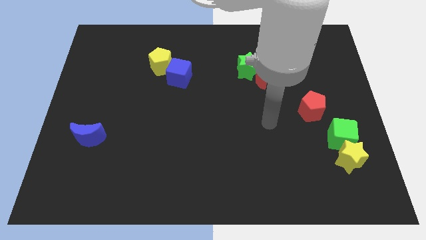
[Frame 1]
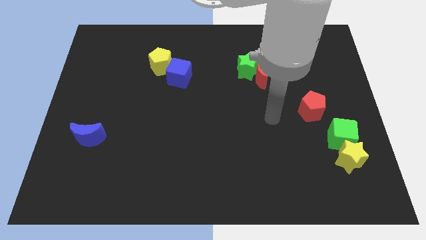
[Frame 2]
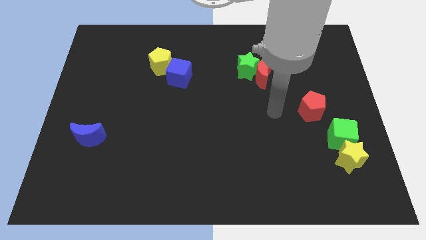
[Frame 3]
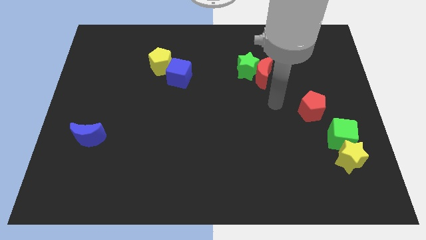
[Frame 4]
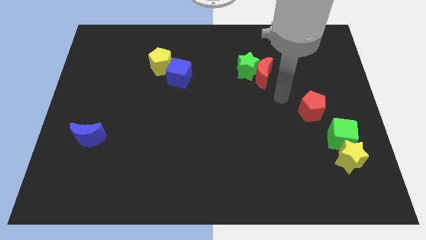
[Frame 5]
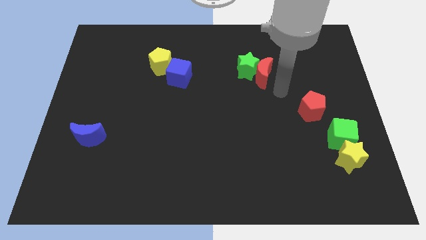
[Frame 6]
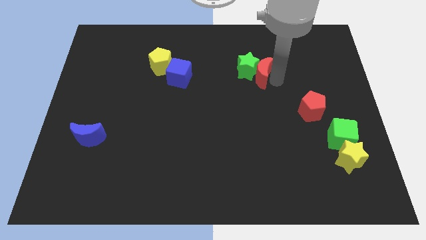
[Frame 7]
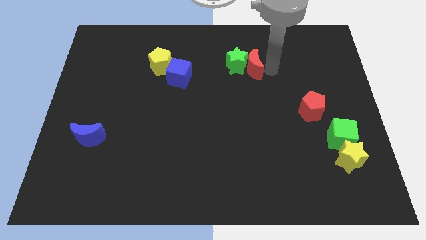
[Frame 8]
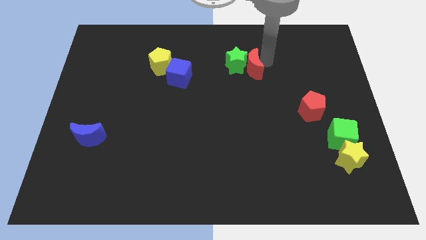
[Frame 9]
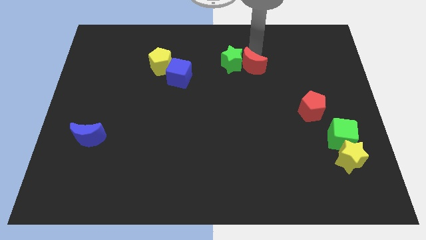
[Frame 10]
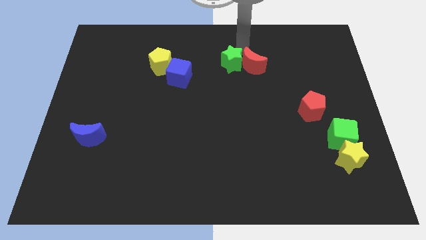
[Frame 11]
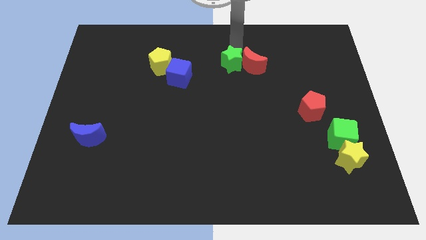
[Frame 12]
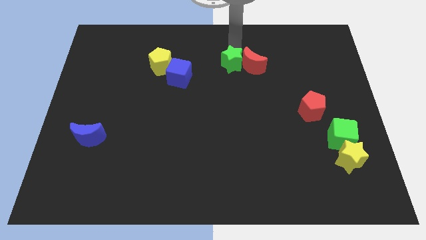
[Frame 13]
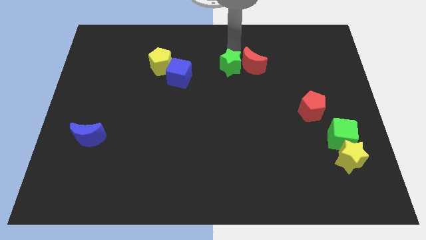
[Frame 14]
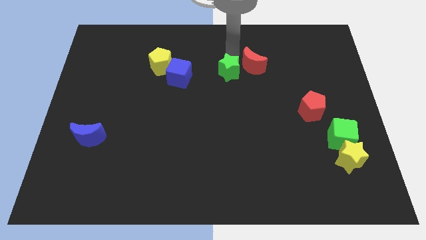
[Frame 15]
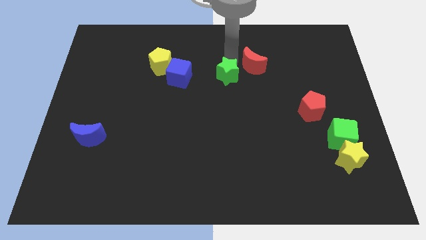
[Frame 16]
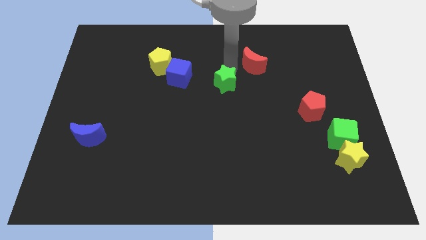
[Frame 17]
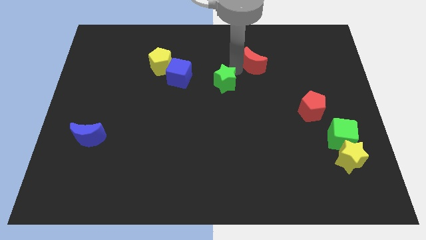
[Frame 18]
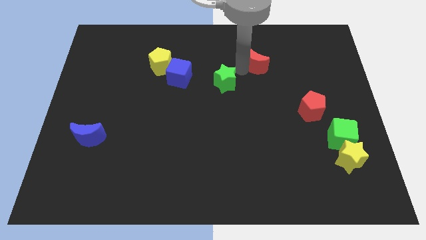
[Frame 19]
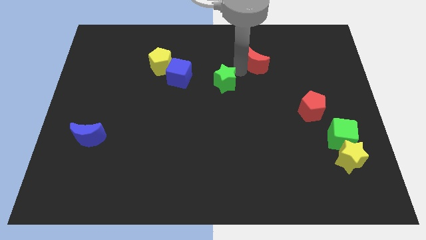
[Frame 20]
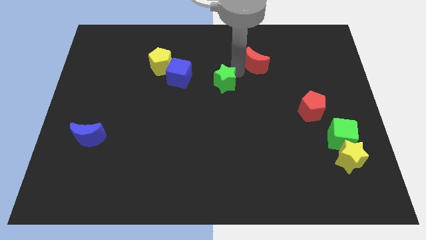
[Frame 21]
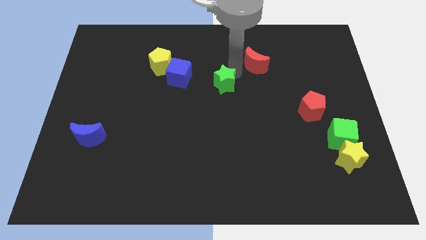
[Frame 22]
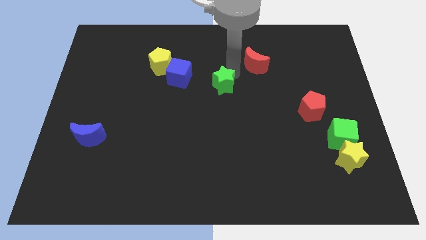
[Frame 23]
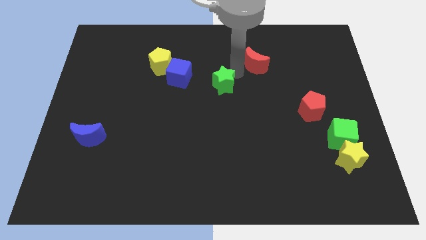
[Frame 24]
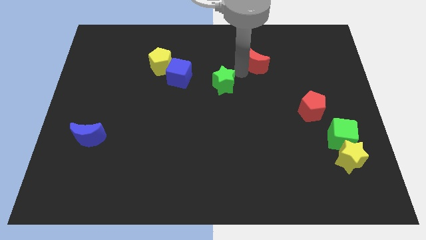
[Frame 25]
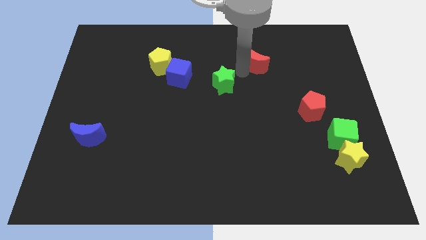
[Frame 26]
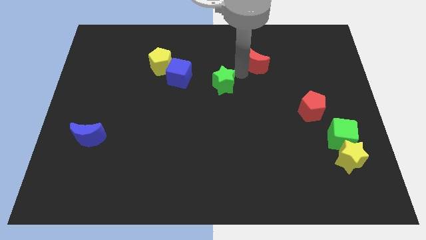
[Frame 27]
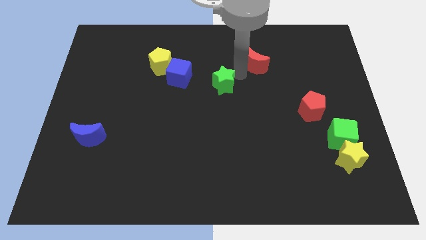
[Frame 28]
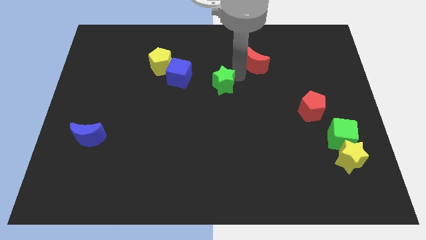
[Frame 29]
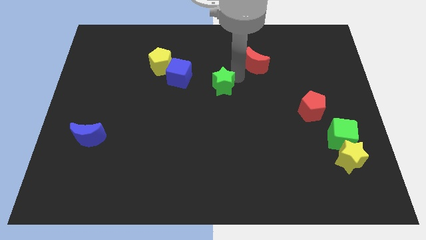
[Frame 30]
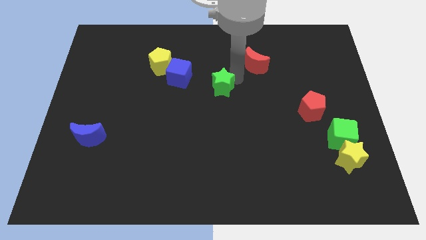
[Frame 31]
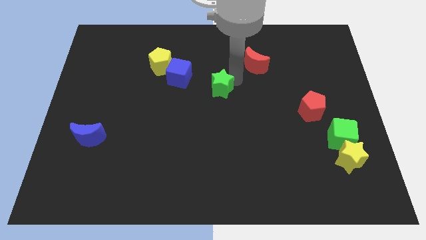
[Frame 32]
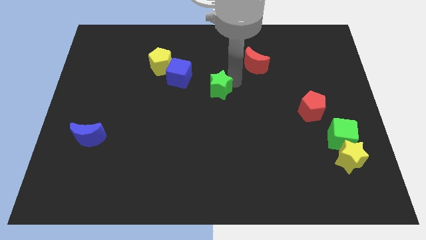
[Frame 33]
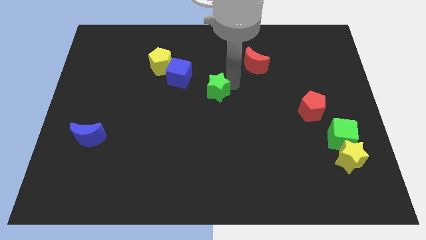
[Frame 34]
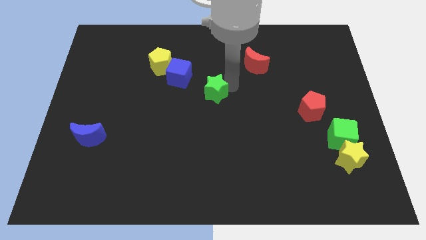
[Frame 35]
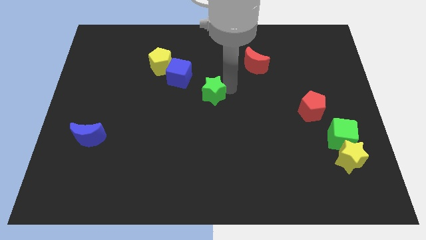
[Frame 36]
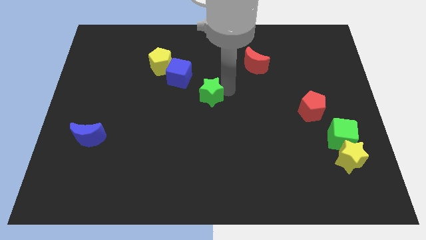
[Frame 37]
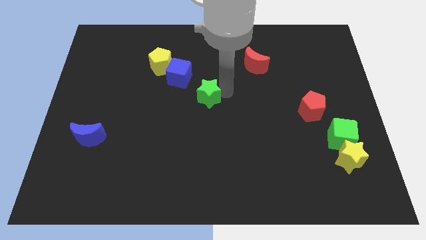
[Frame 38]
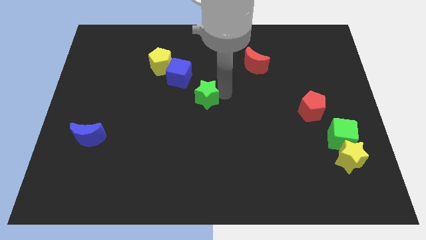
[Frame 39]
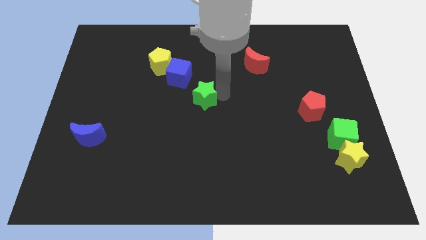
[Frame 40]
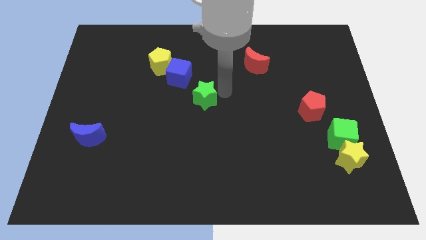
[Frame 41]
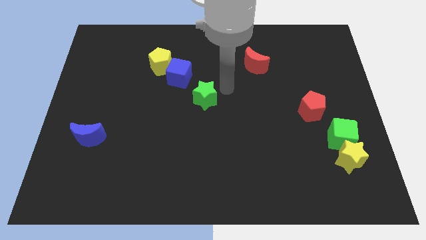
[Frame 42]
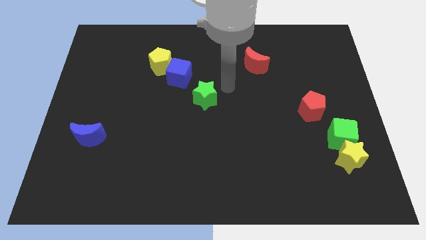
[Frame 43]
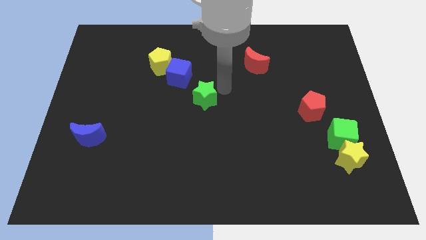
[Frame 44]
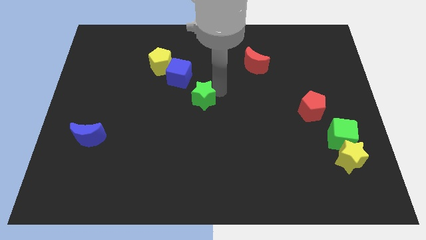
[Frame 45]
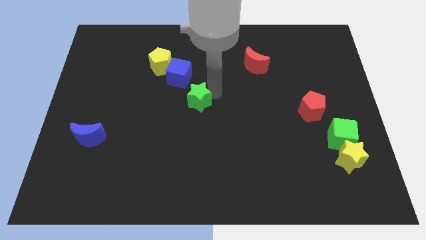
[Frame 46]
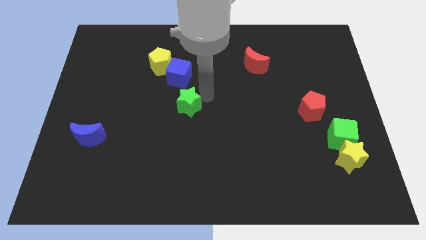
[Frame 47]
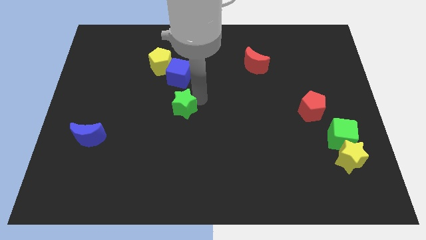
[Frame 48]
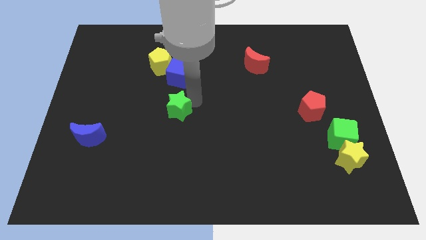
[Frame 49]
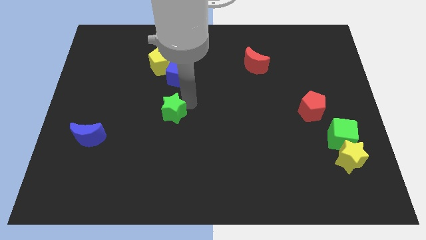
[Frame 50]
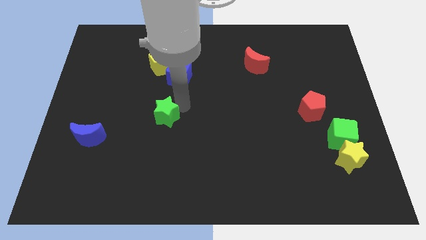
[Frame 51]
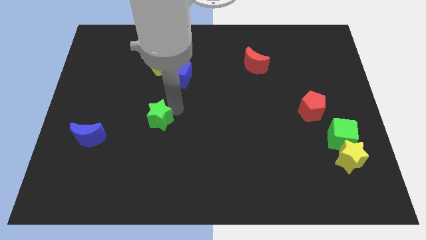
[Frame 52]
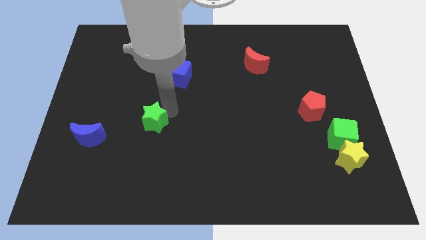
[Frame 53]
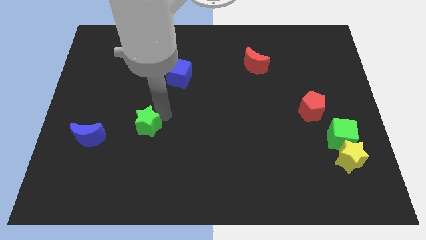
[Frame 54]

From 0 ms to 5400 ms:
slide the green star right of the blue moon

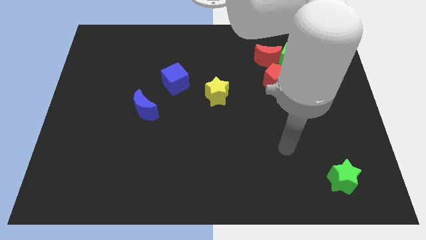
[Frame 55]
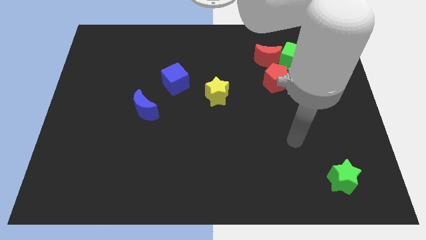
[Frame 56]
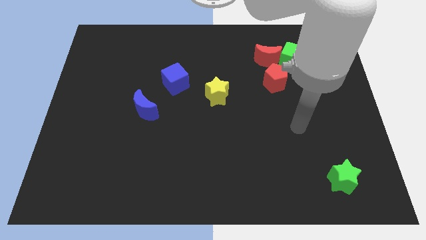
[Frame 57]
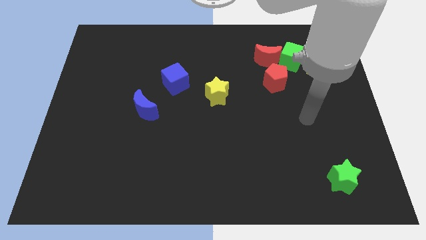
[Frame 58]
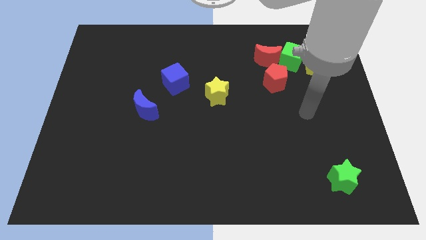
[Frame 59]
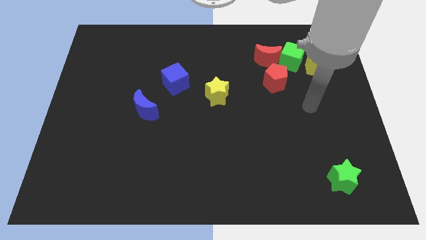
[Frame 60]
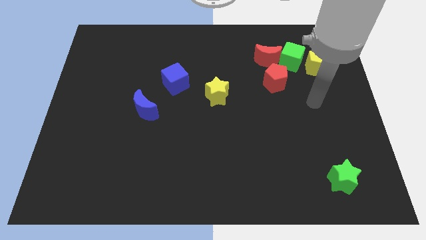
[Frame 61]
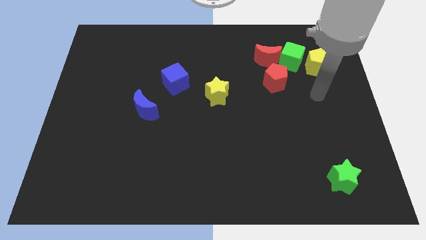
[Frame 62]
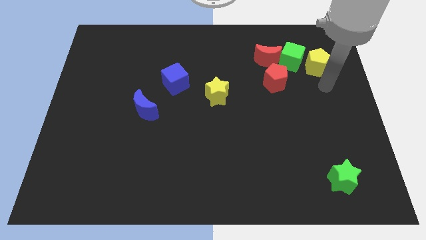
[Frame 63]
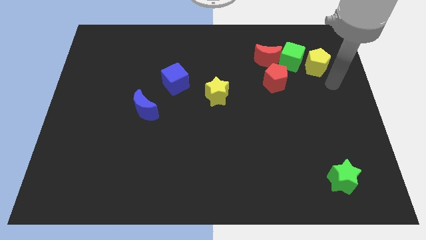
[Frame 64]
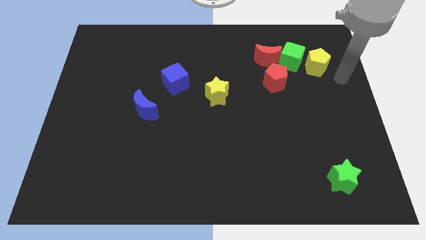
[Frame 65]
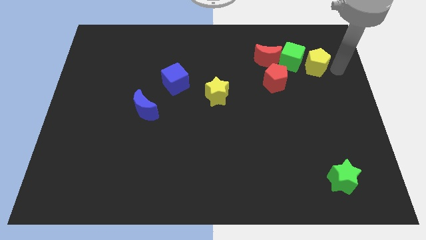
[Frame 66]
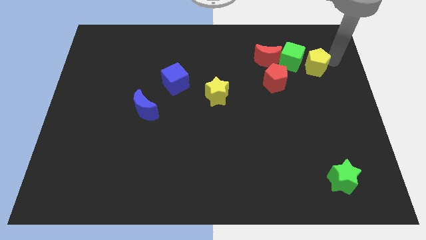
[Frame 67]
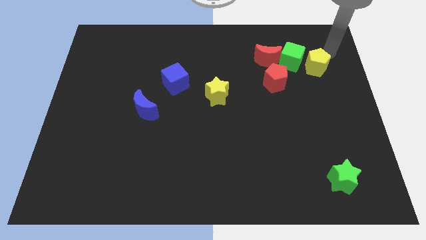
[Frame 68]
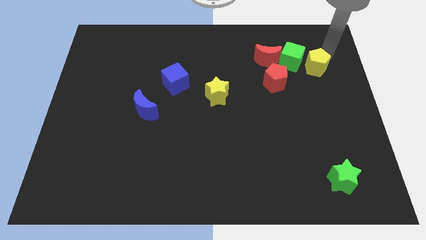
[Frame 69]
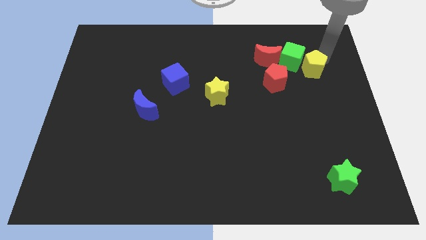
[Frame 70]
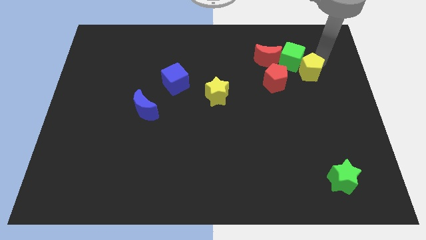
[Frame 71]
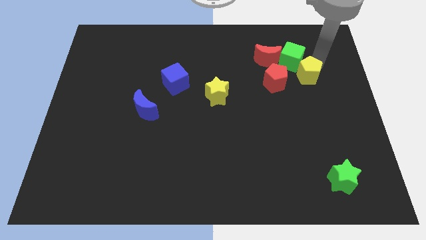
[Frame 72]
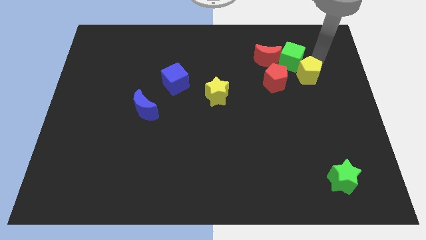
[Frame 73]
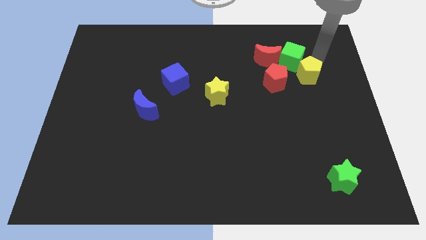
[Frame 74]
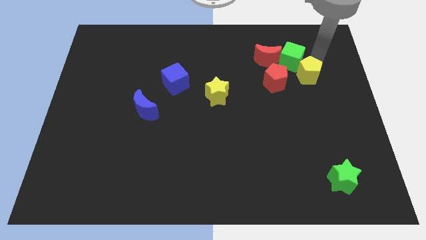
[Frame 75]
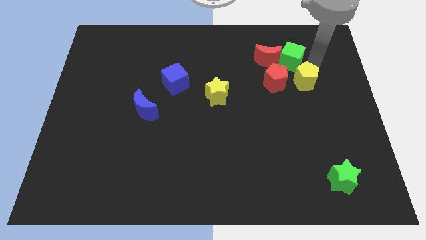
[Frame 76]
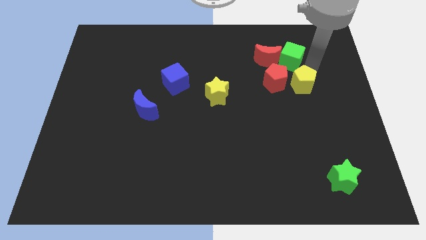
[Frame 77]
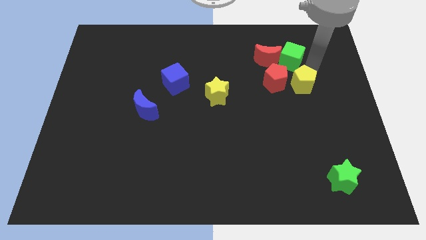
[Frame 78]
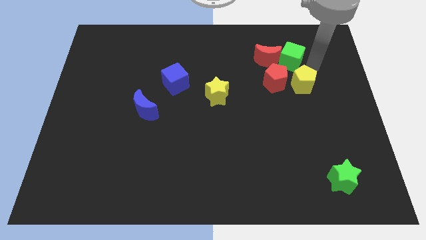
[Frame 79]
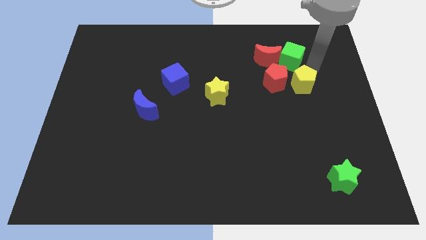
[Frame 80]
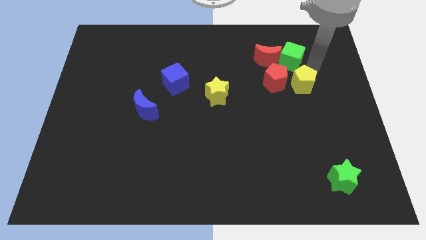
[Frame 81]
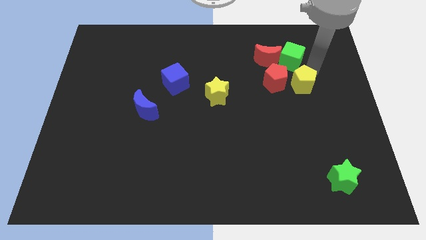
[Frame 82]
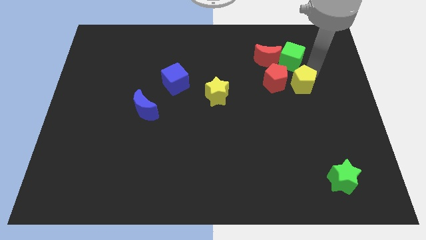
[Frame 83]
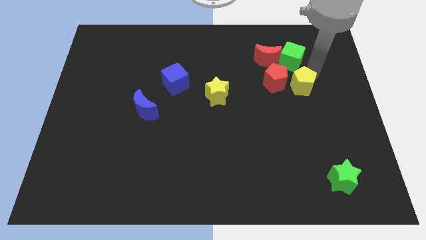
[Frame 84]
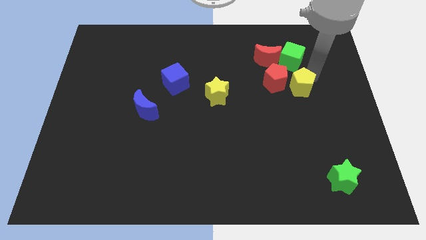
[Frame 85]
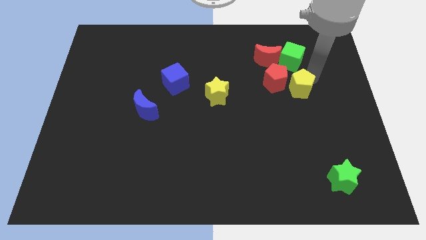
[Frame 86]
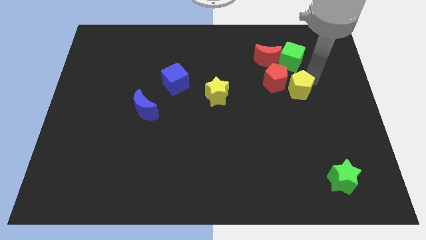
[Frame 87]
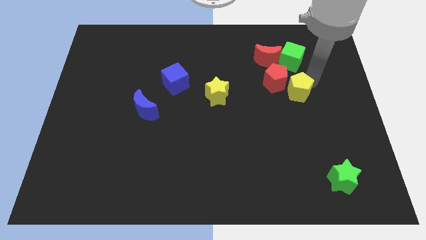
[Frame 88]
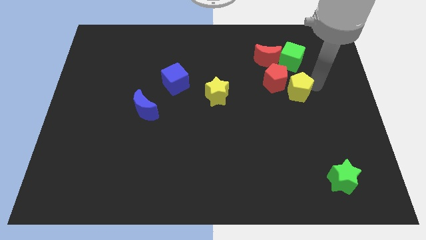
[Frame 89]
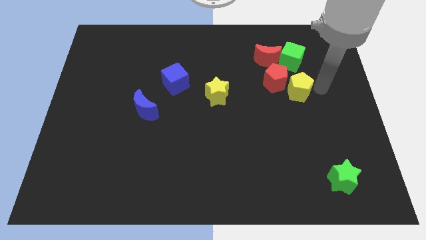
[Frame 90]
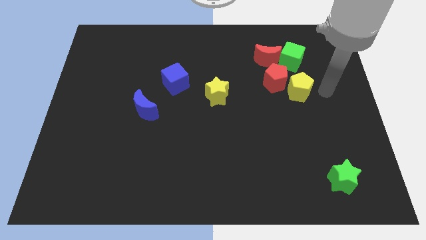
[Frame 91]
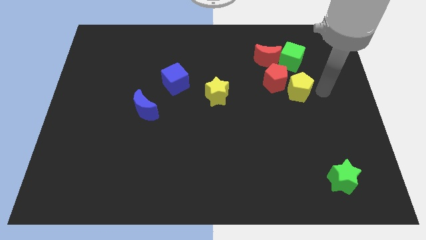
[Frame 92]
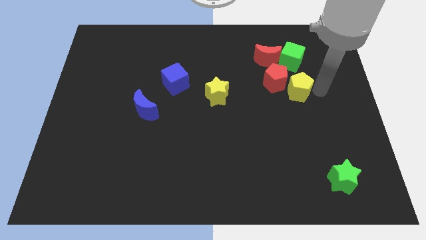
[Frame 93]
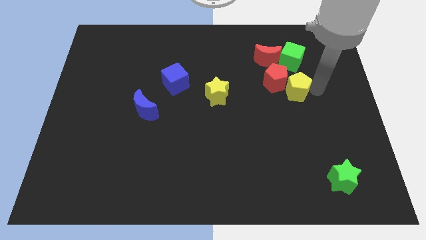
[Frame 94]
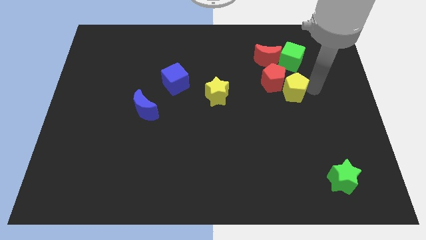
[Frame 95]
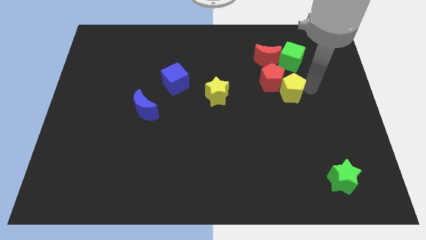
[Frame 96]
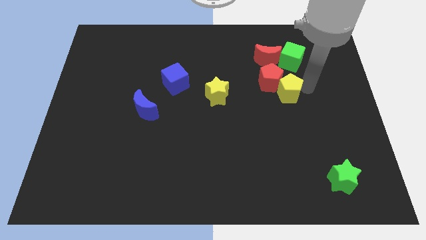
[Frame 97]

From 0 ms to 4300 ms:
move the yellow pentagon below the red moon
